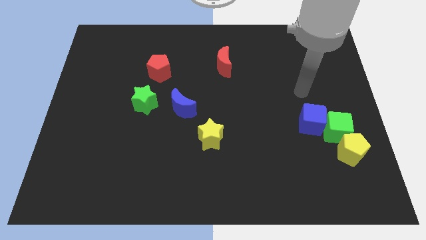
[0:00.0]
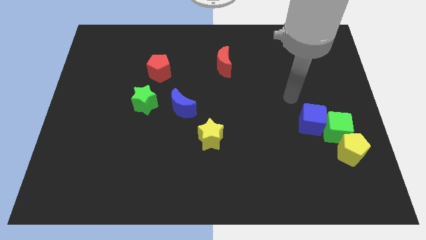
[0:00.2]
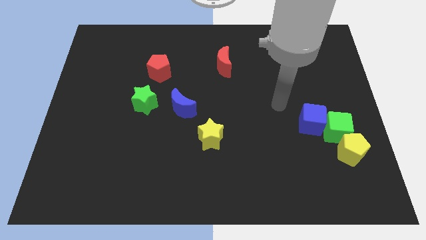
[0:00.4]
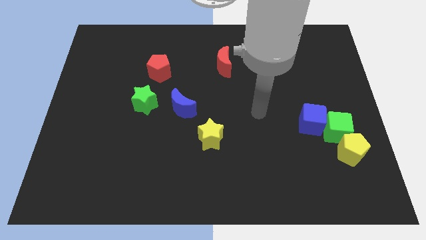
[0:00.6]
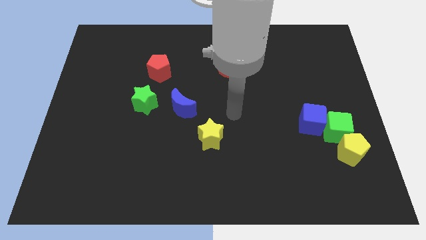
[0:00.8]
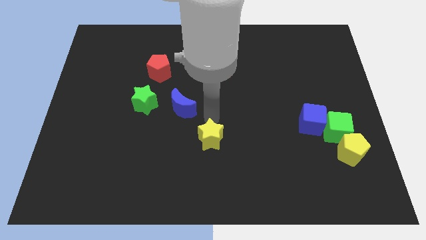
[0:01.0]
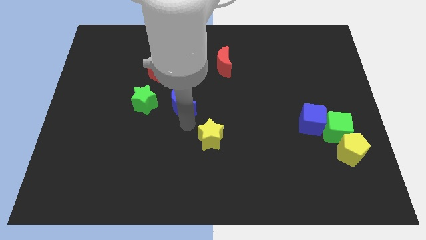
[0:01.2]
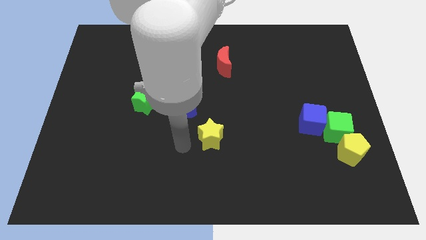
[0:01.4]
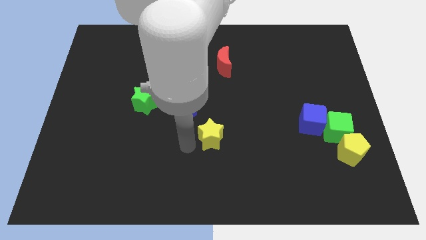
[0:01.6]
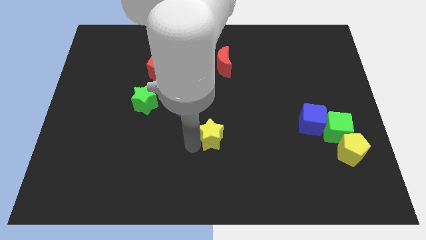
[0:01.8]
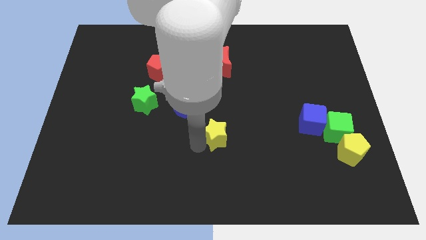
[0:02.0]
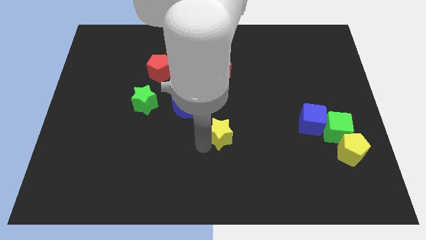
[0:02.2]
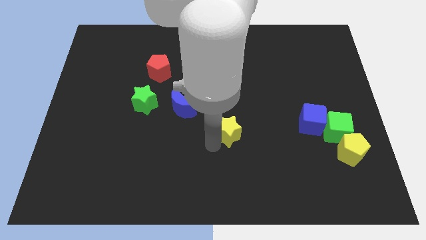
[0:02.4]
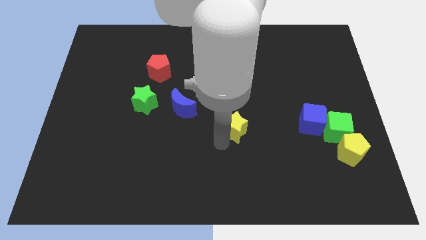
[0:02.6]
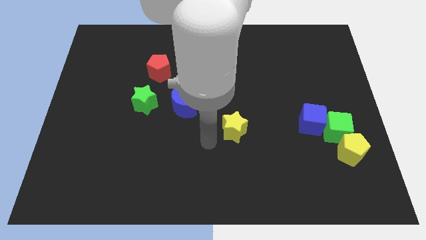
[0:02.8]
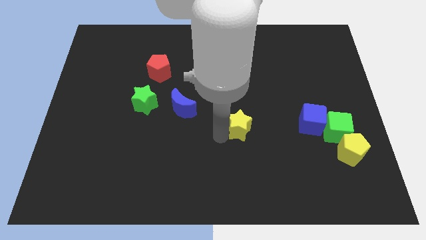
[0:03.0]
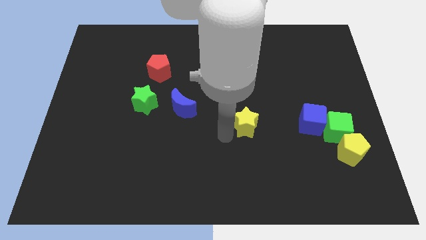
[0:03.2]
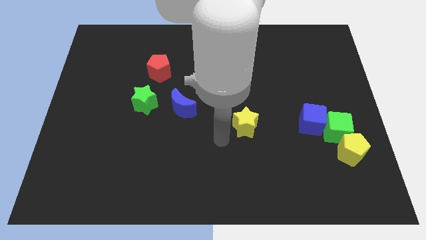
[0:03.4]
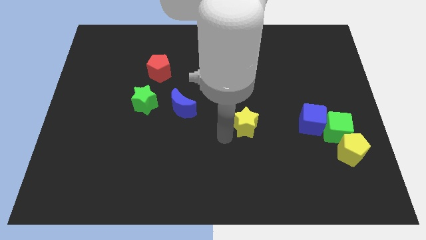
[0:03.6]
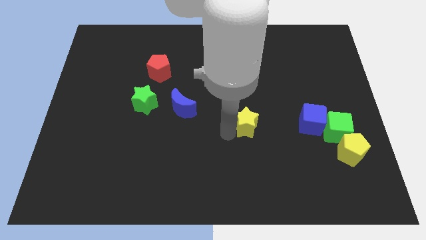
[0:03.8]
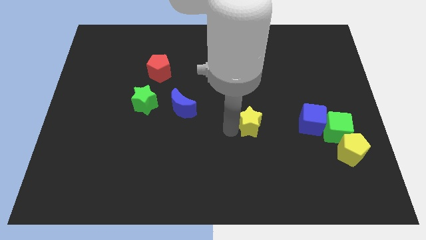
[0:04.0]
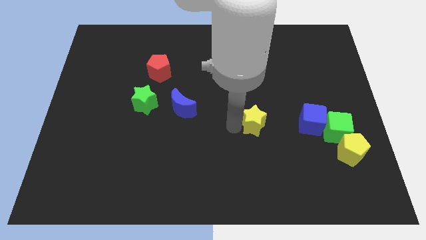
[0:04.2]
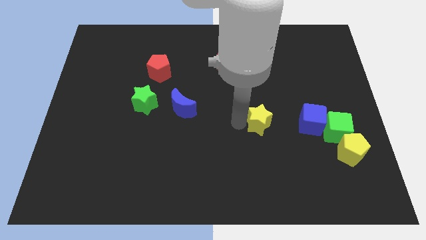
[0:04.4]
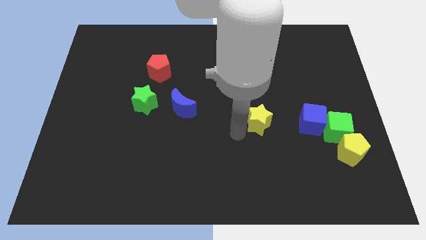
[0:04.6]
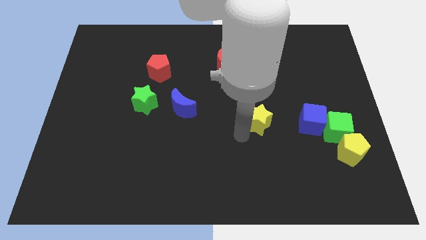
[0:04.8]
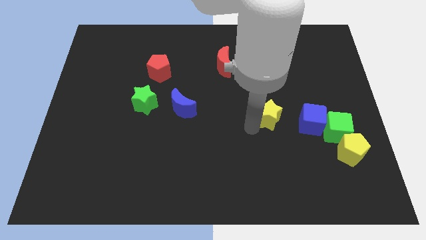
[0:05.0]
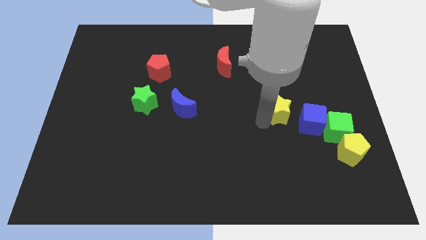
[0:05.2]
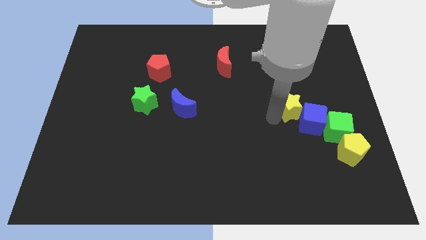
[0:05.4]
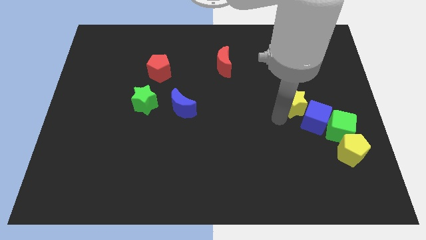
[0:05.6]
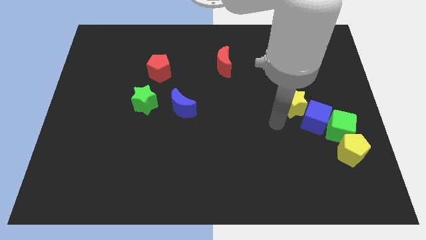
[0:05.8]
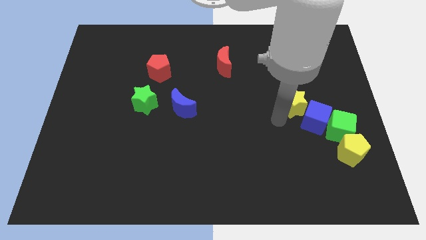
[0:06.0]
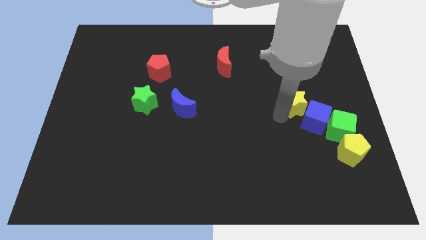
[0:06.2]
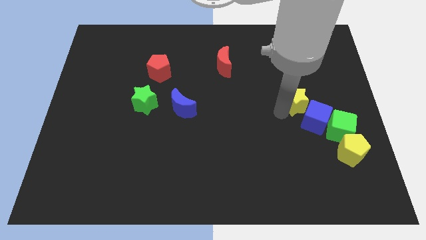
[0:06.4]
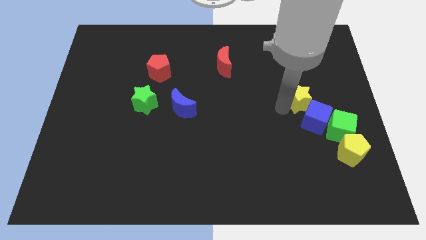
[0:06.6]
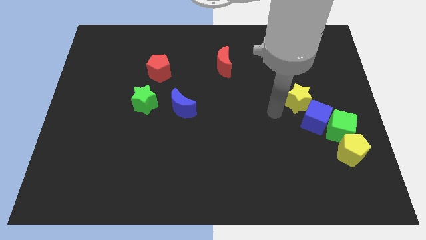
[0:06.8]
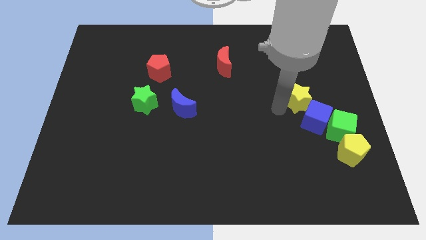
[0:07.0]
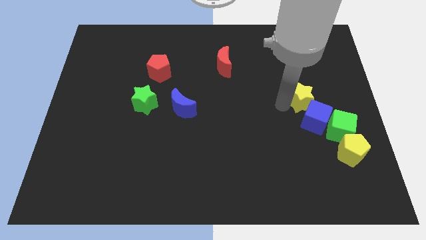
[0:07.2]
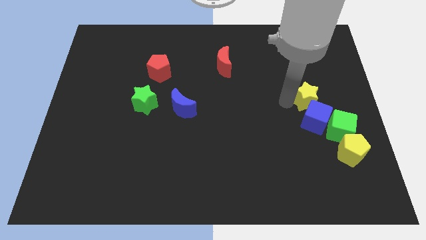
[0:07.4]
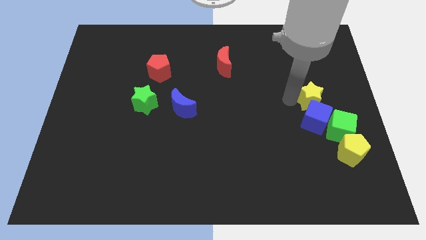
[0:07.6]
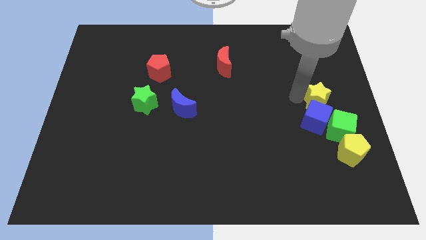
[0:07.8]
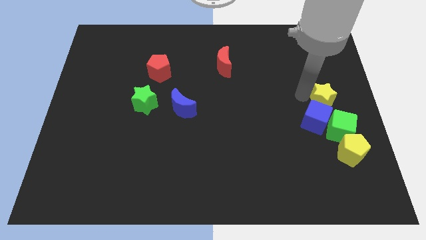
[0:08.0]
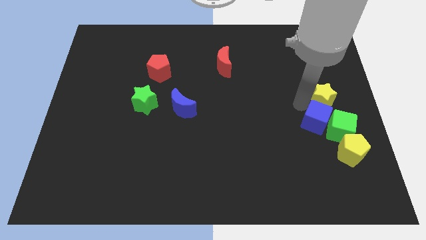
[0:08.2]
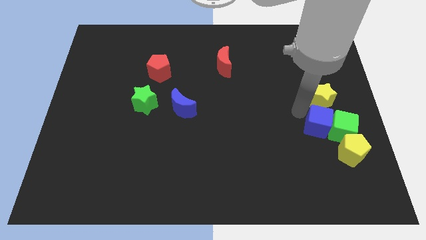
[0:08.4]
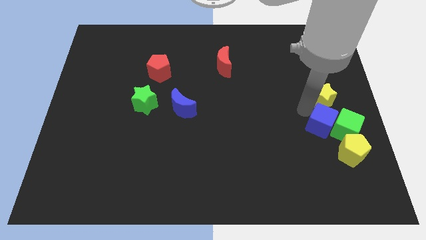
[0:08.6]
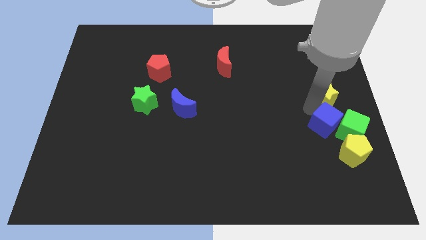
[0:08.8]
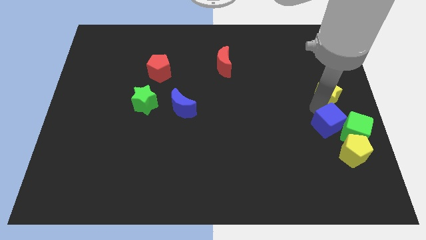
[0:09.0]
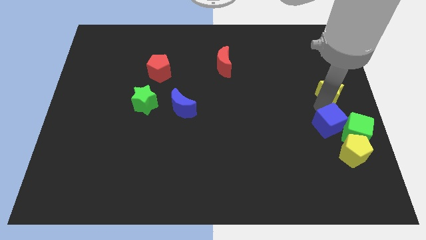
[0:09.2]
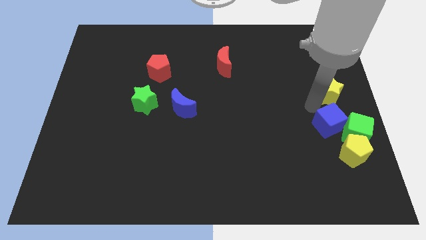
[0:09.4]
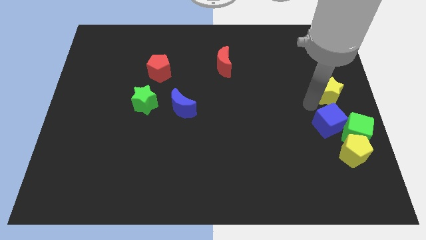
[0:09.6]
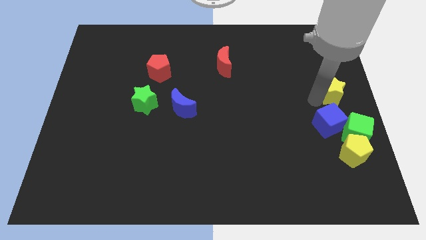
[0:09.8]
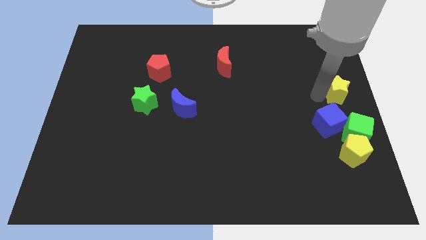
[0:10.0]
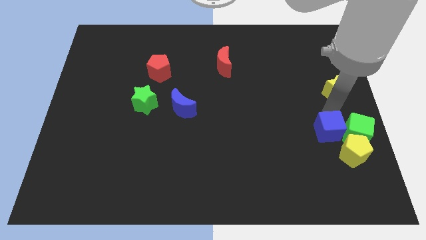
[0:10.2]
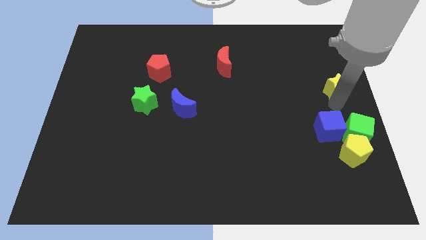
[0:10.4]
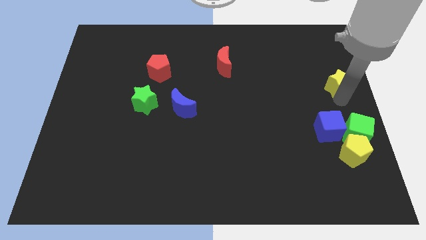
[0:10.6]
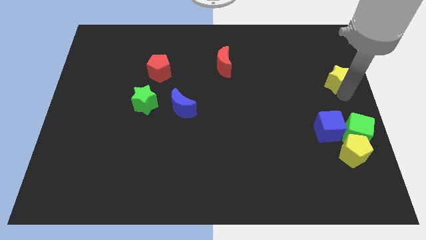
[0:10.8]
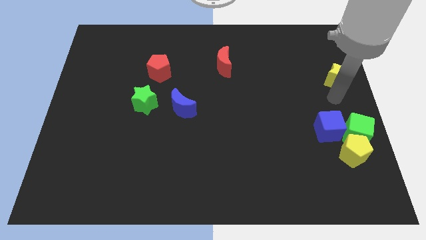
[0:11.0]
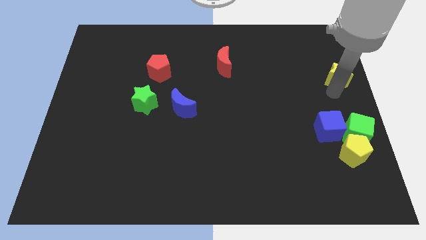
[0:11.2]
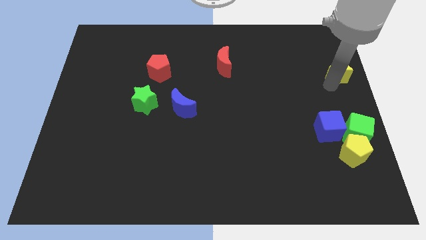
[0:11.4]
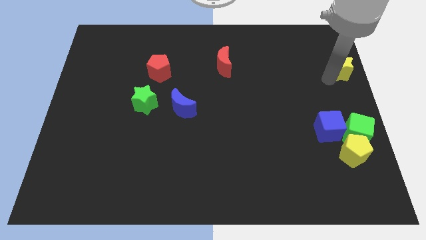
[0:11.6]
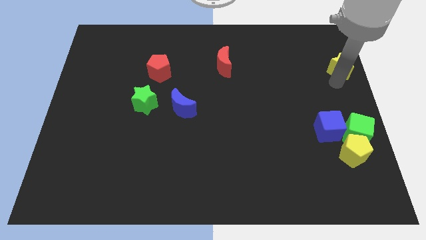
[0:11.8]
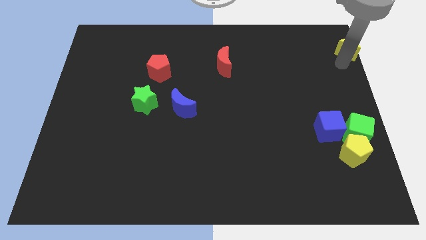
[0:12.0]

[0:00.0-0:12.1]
slide the yellow star to the upper right corner

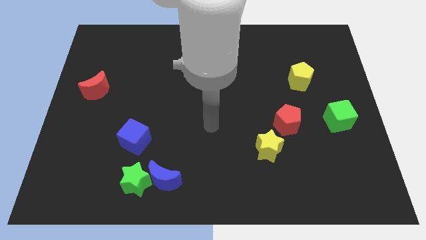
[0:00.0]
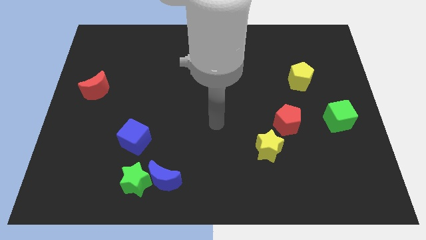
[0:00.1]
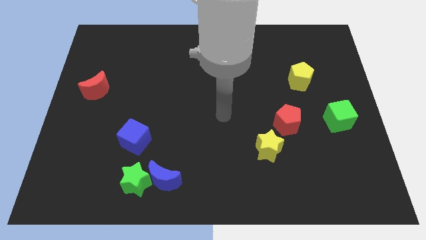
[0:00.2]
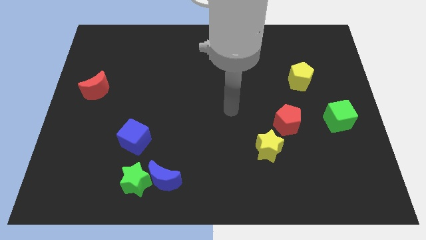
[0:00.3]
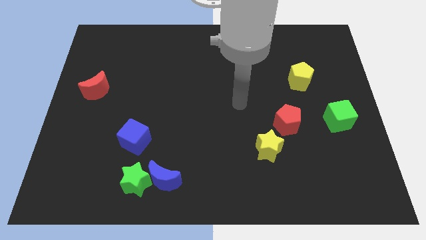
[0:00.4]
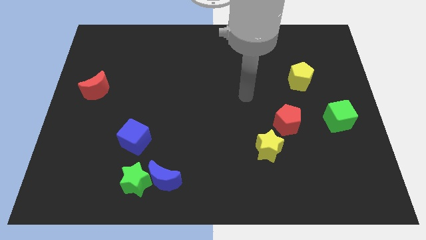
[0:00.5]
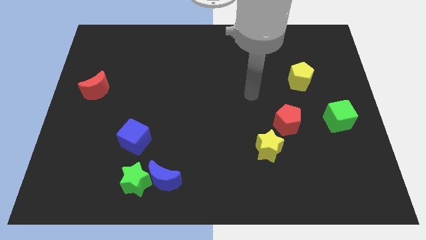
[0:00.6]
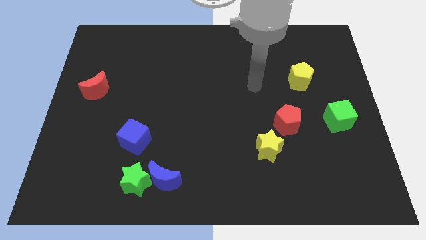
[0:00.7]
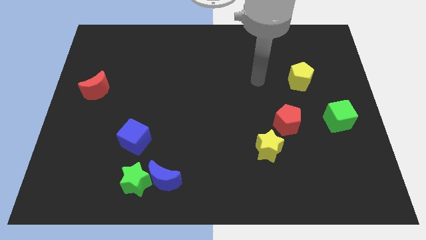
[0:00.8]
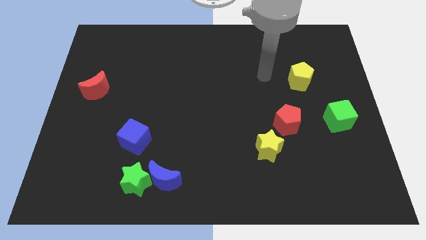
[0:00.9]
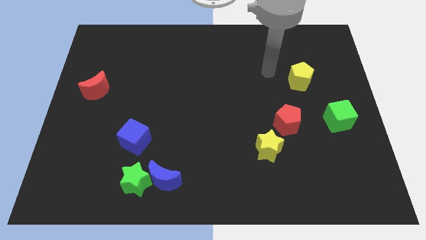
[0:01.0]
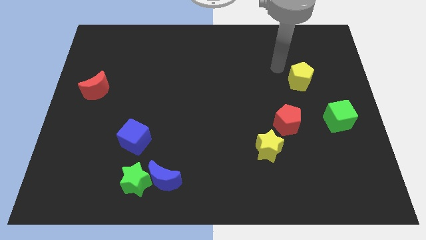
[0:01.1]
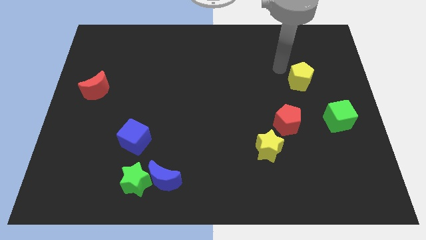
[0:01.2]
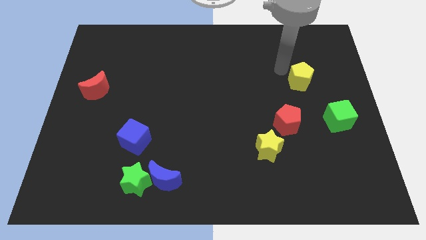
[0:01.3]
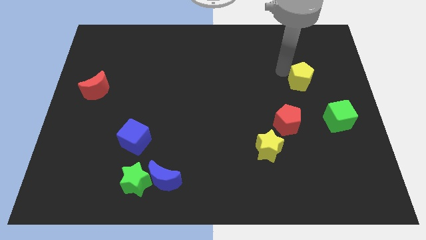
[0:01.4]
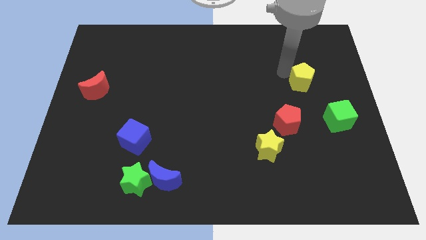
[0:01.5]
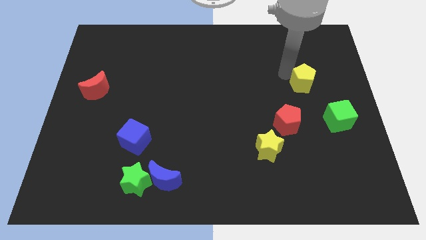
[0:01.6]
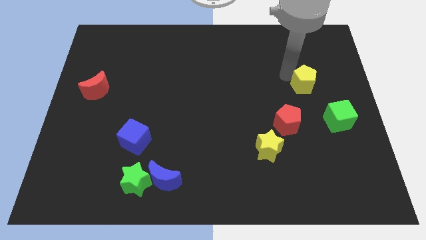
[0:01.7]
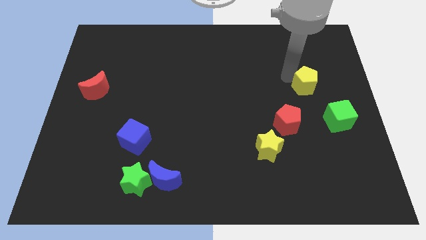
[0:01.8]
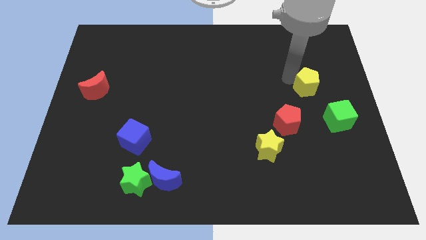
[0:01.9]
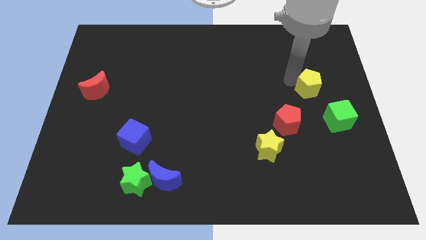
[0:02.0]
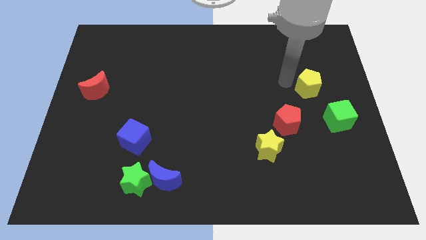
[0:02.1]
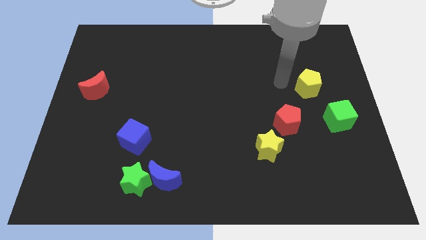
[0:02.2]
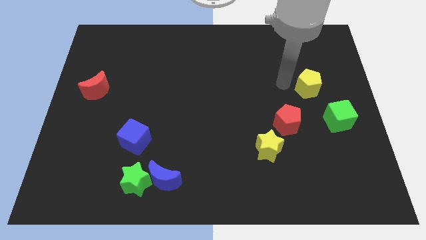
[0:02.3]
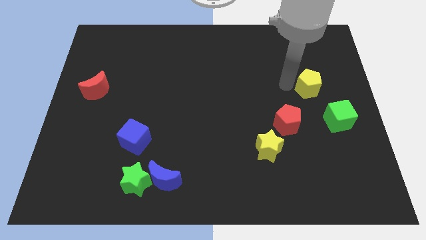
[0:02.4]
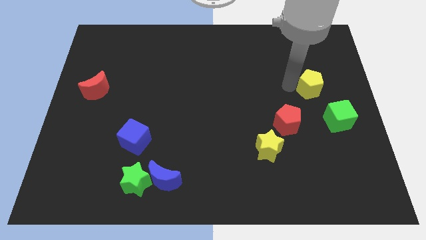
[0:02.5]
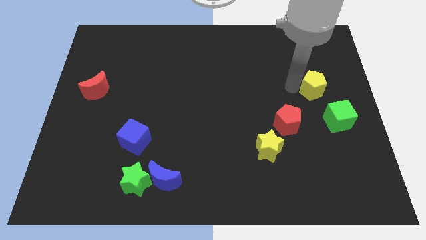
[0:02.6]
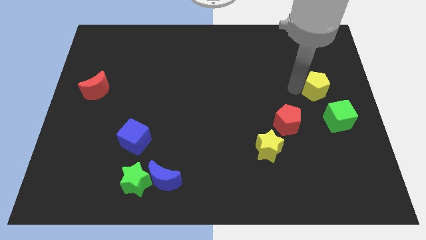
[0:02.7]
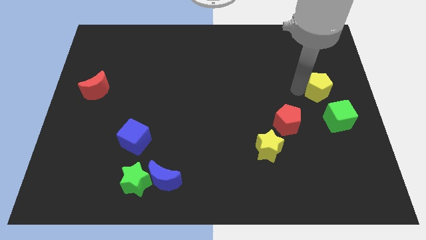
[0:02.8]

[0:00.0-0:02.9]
put the yellow pentagon to the right side of the board
